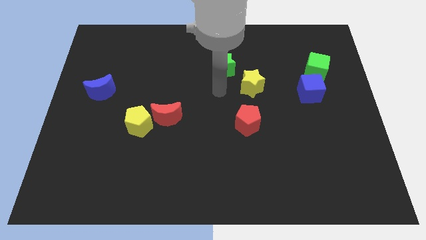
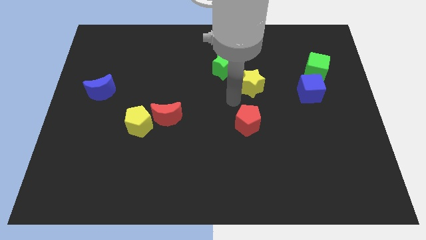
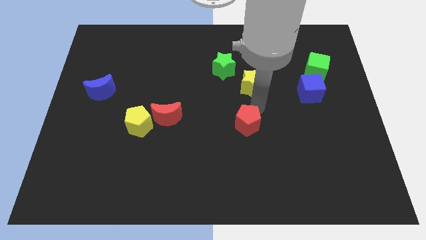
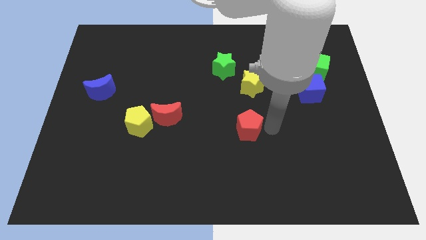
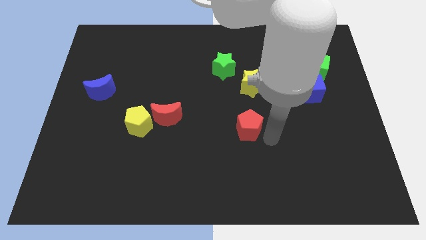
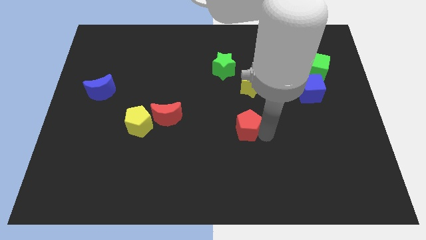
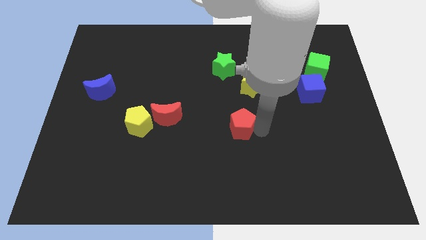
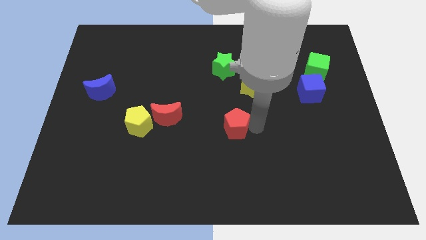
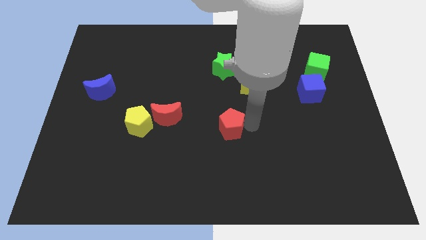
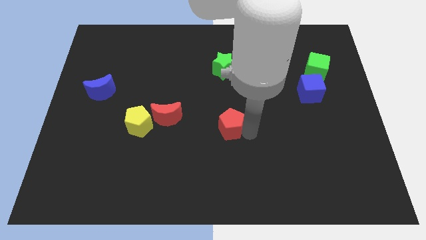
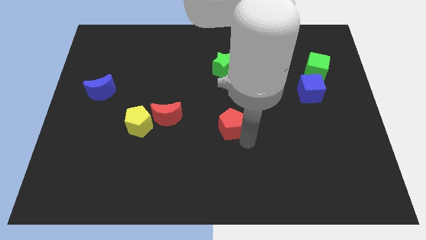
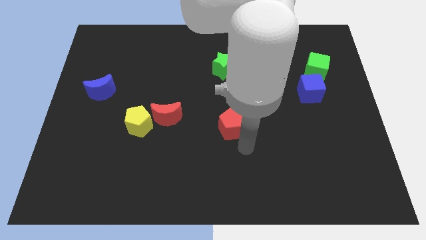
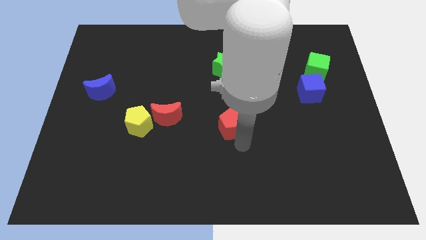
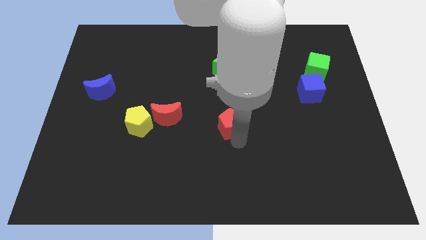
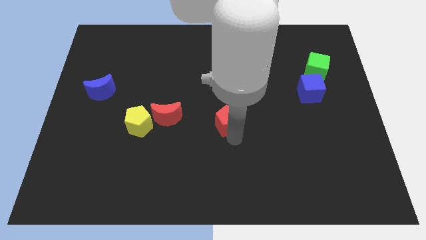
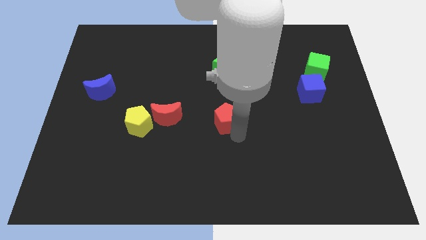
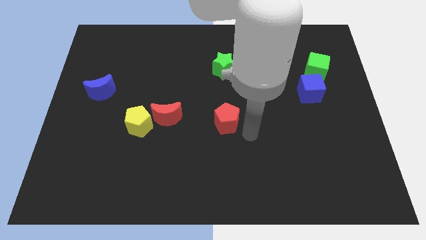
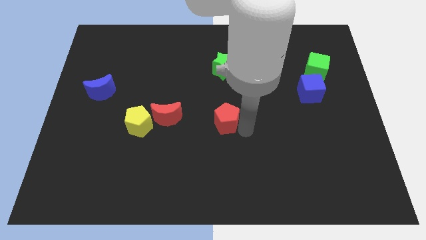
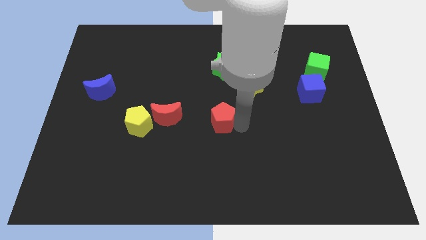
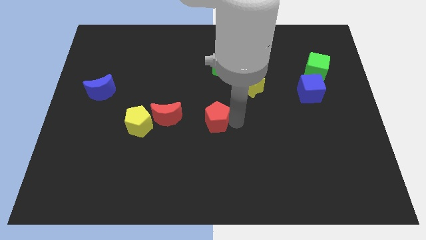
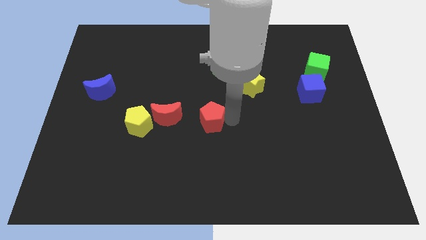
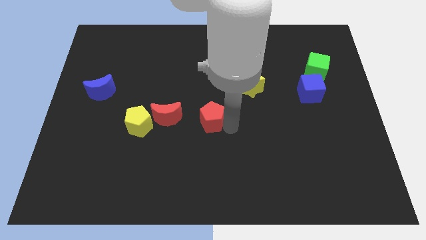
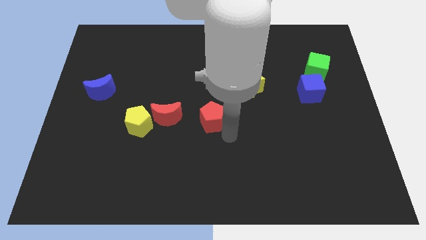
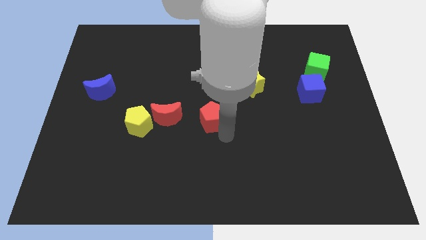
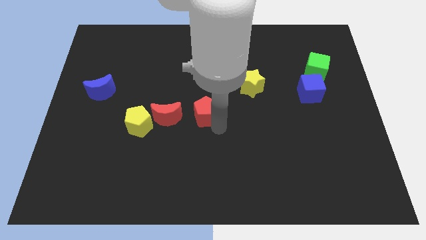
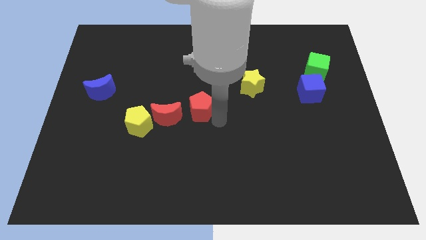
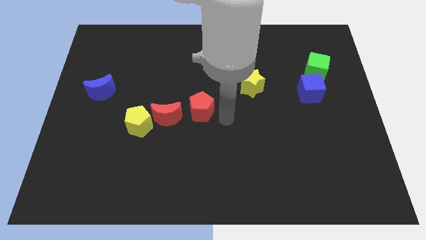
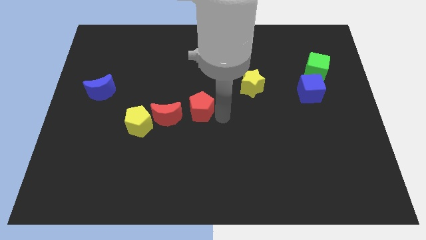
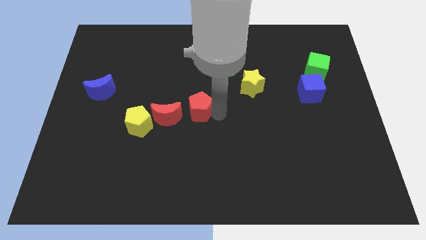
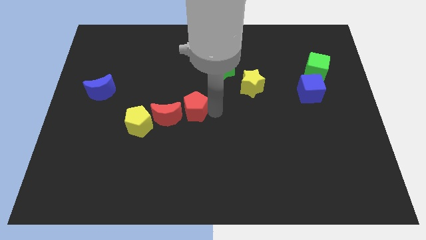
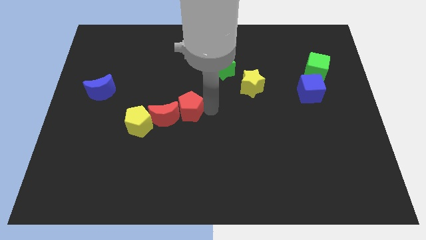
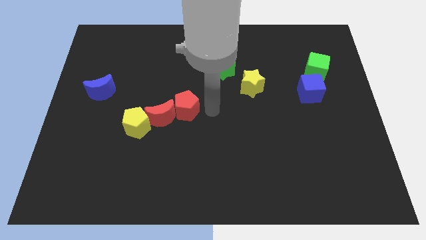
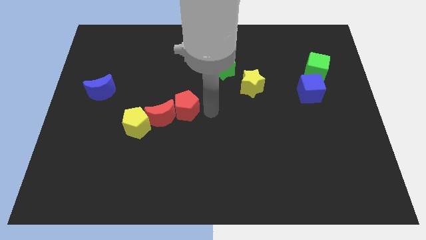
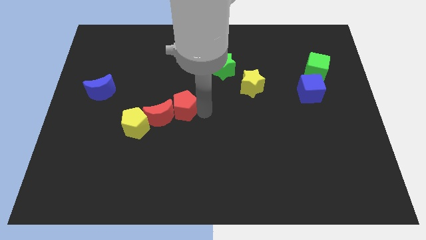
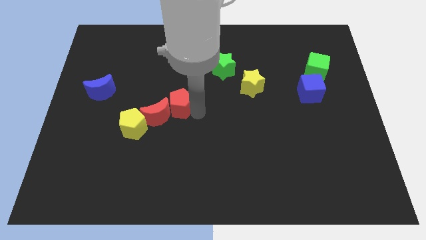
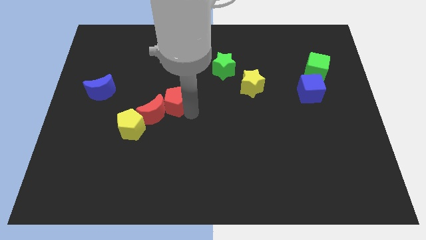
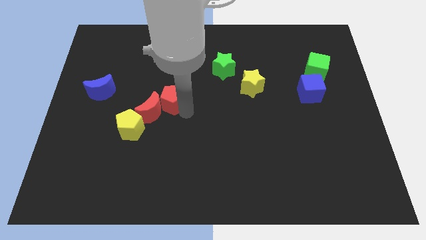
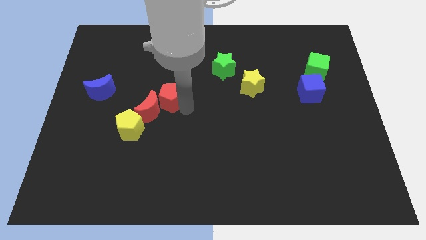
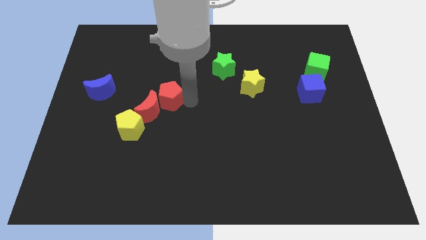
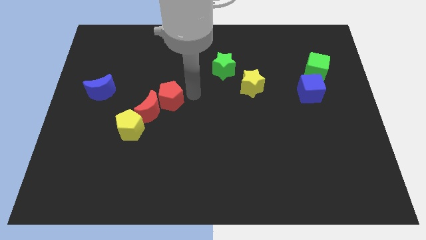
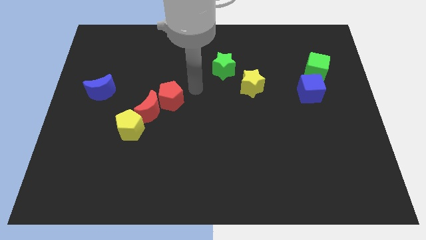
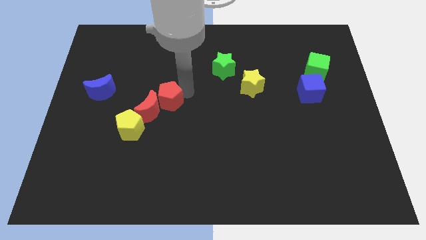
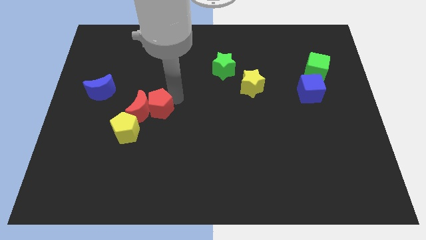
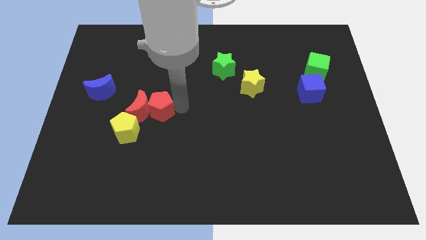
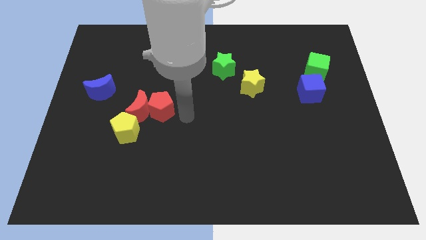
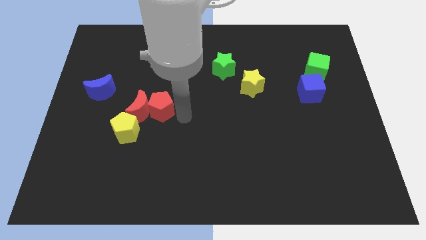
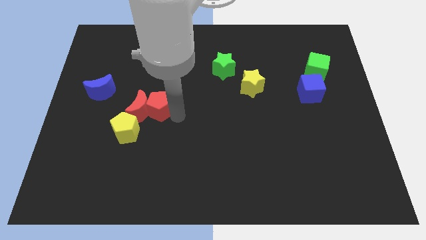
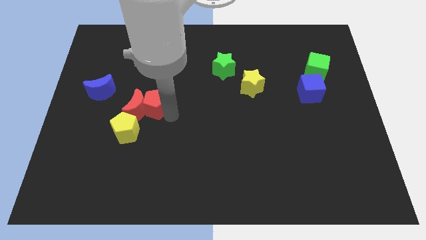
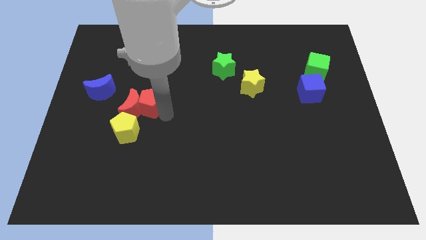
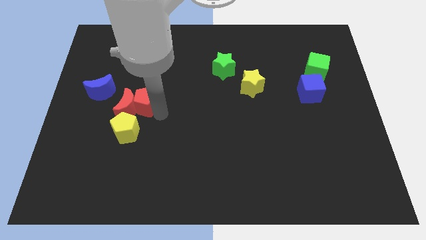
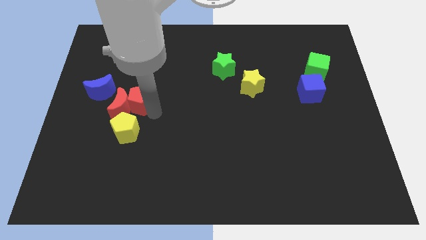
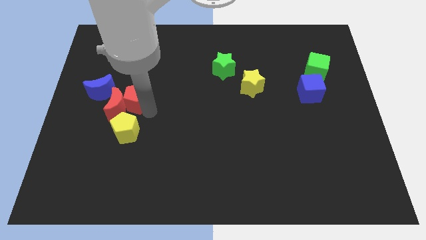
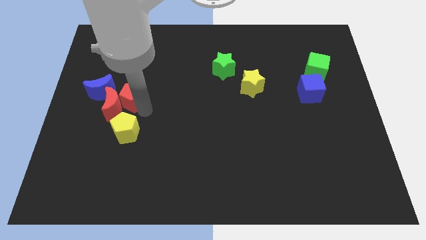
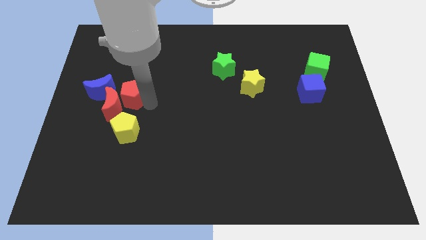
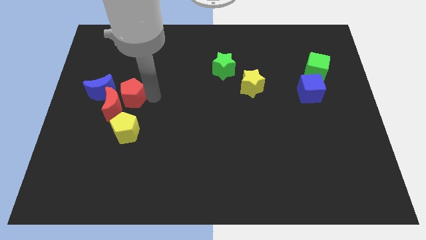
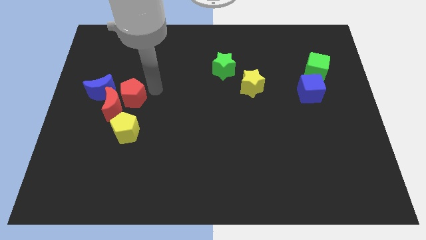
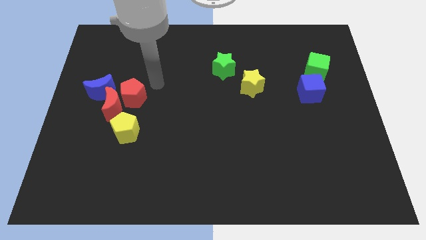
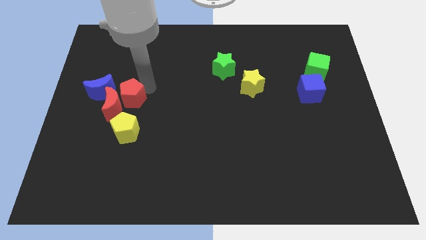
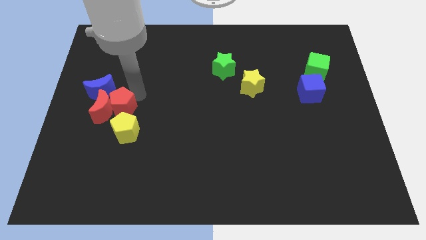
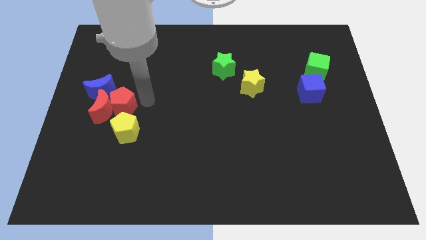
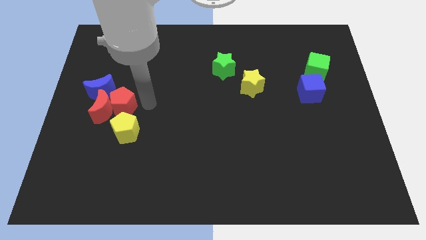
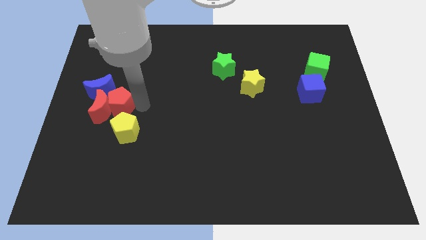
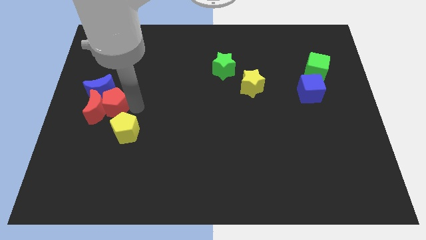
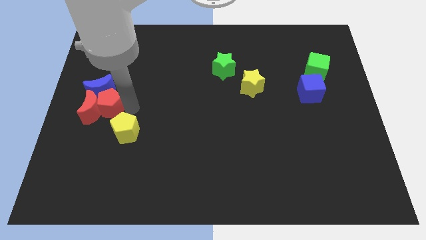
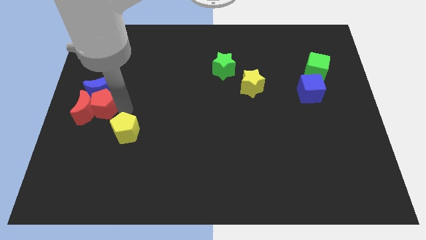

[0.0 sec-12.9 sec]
move the red pentagon to the left side
